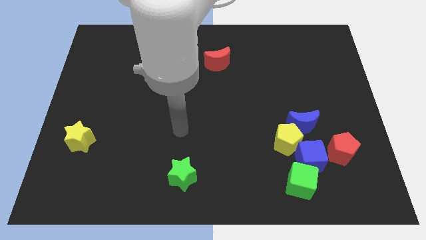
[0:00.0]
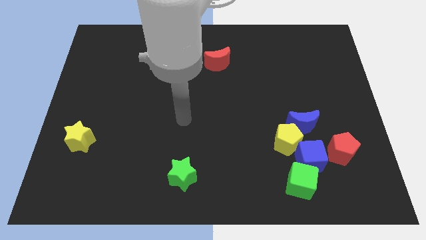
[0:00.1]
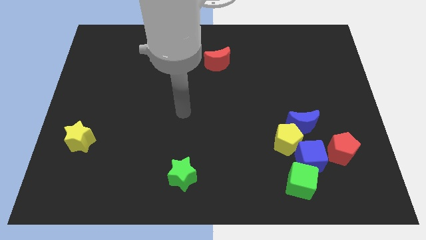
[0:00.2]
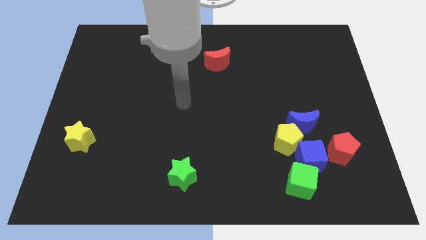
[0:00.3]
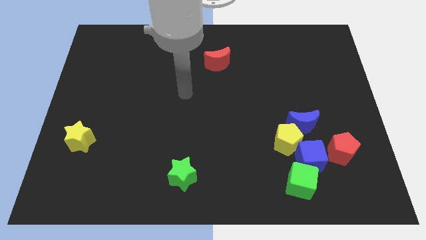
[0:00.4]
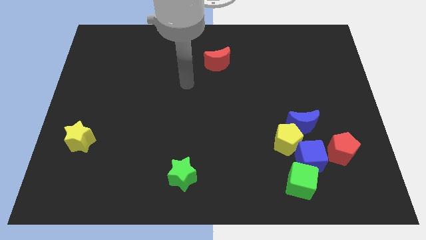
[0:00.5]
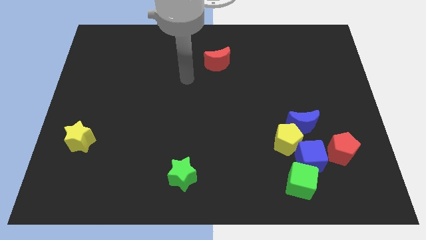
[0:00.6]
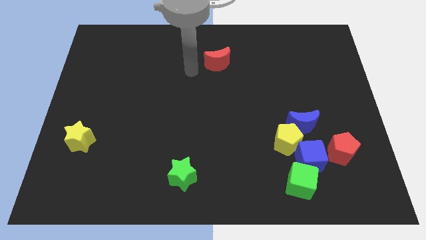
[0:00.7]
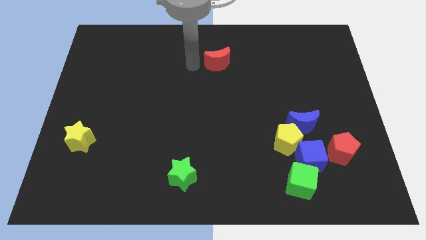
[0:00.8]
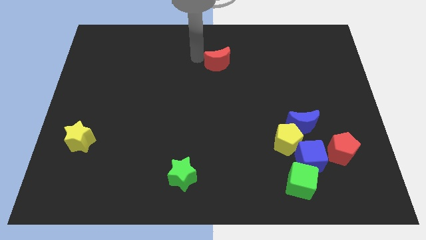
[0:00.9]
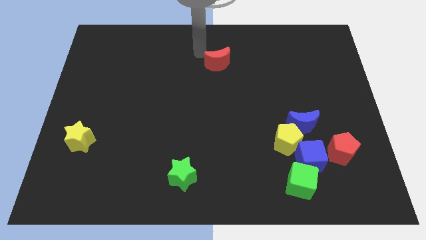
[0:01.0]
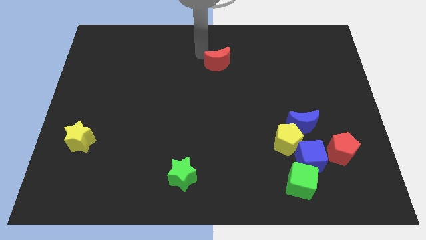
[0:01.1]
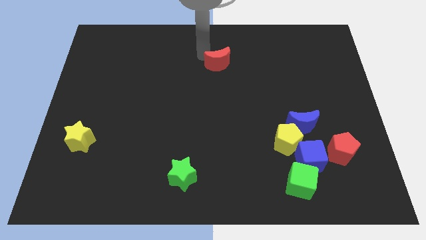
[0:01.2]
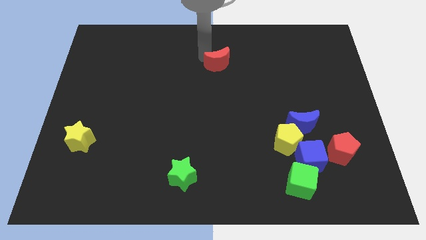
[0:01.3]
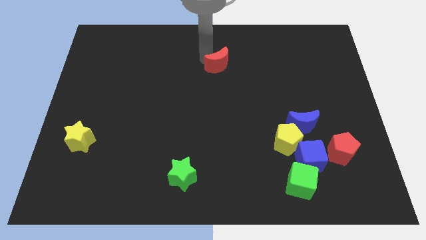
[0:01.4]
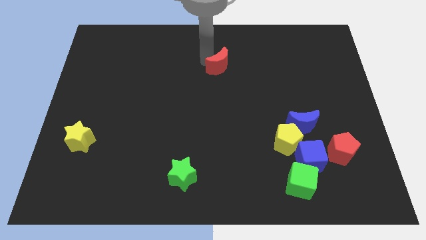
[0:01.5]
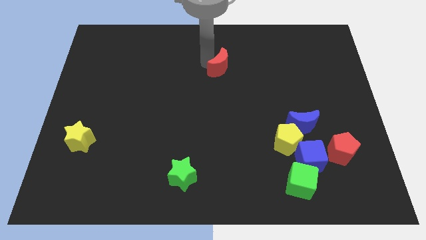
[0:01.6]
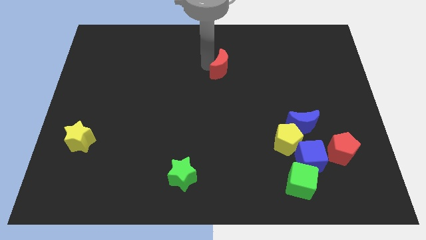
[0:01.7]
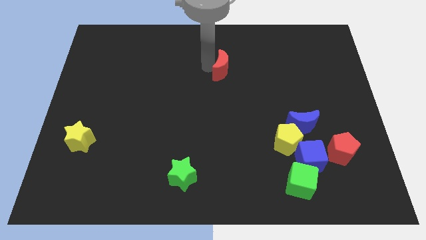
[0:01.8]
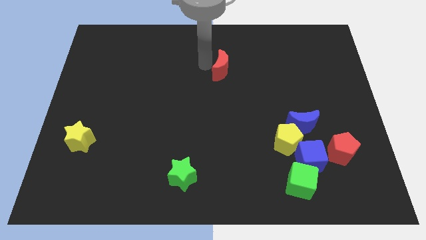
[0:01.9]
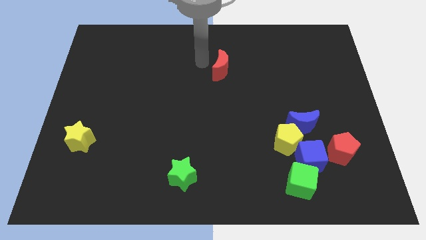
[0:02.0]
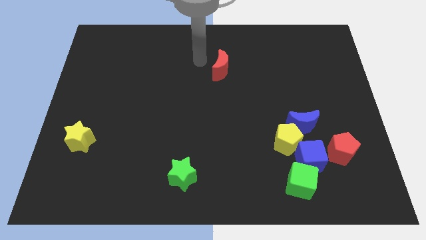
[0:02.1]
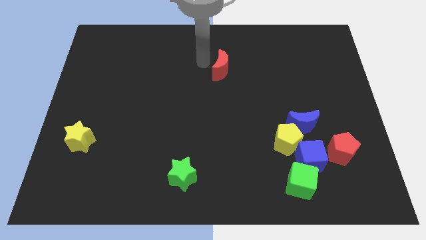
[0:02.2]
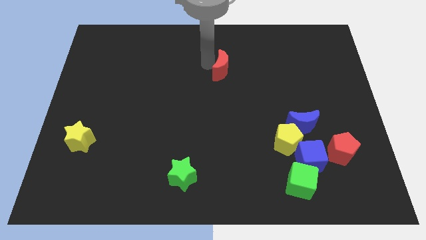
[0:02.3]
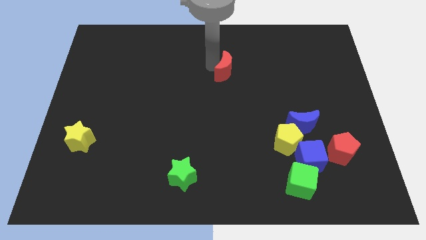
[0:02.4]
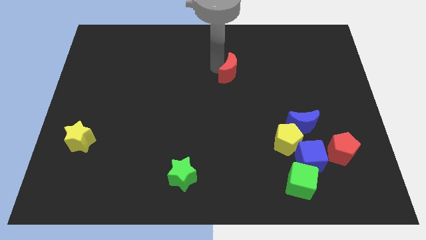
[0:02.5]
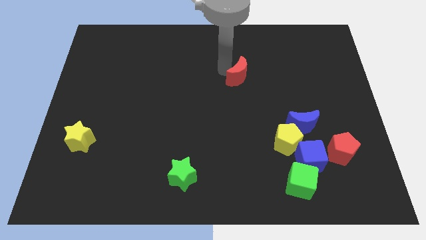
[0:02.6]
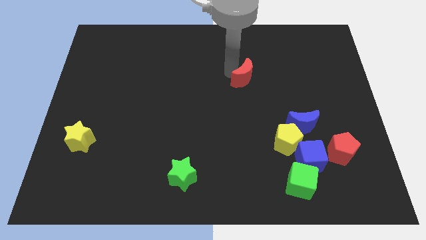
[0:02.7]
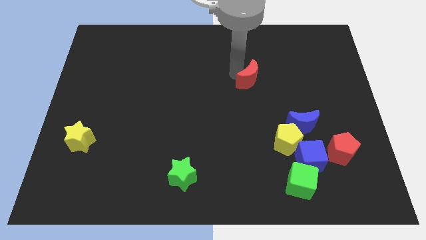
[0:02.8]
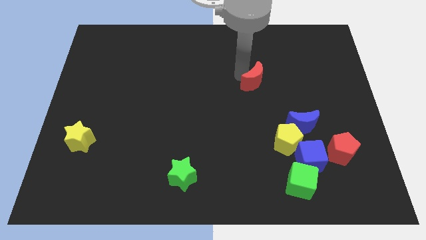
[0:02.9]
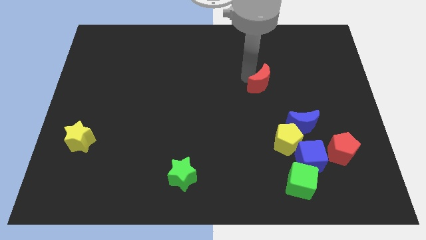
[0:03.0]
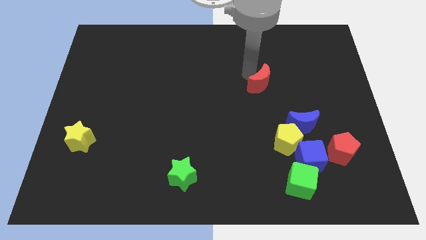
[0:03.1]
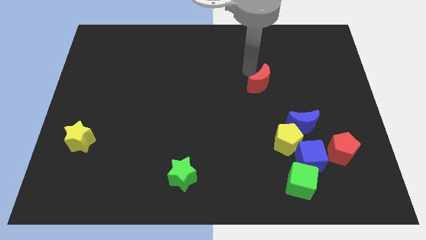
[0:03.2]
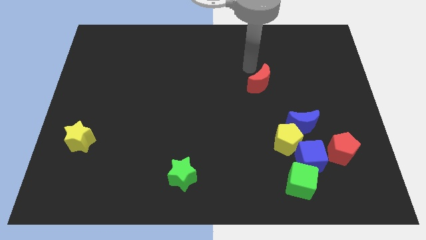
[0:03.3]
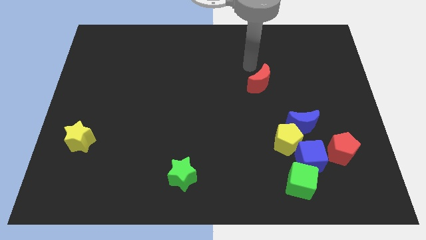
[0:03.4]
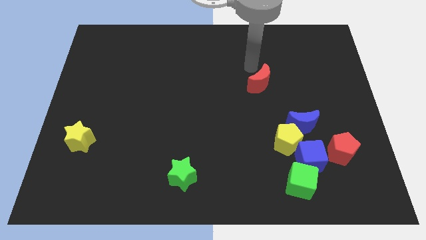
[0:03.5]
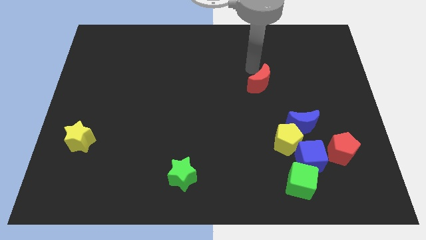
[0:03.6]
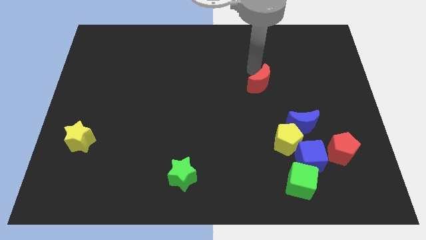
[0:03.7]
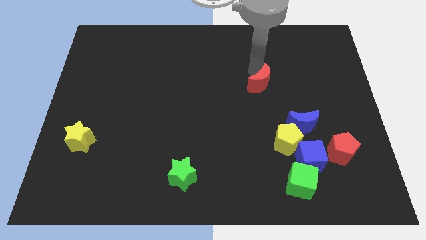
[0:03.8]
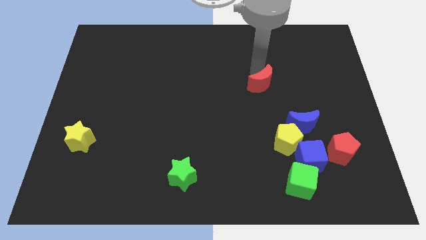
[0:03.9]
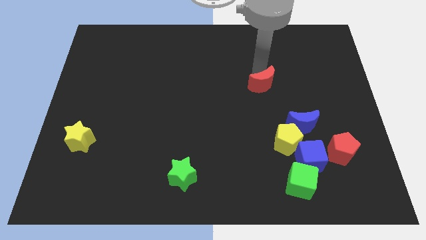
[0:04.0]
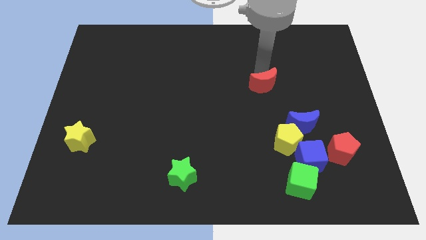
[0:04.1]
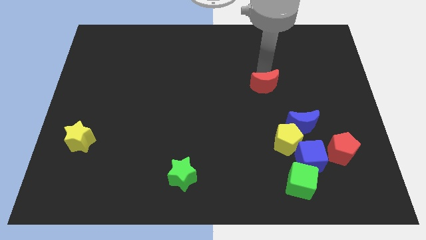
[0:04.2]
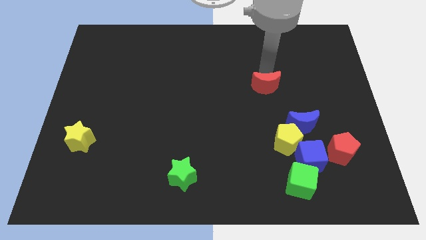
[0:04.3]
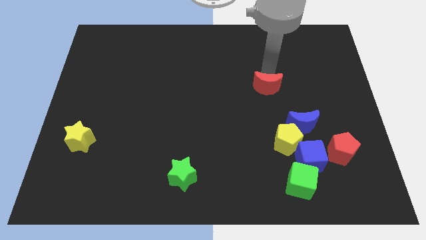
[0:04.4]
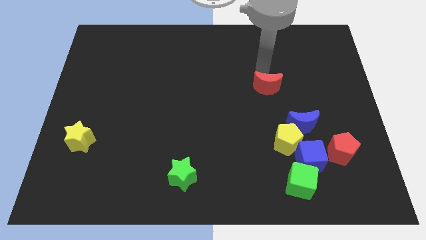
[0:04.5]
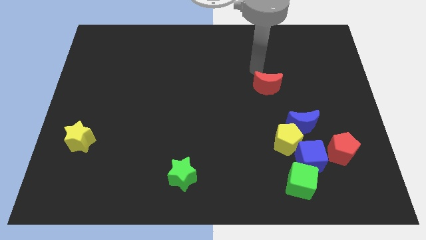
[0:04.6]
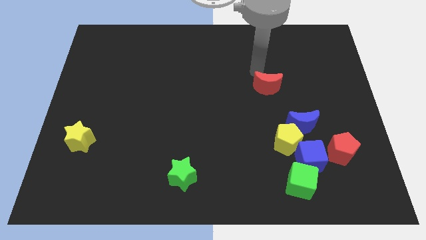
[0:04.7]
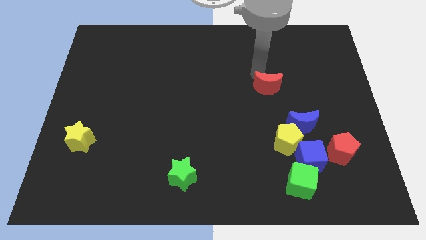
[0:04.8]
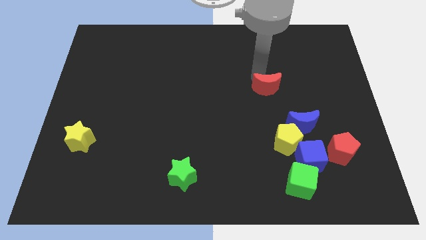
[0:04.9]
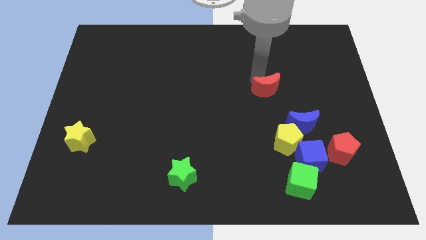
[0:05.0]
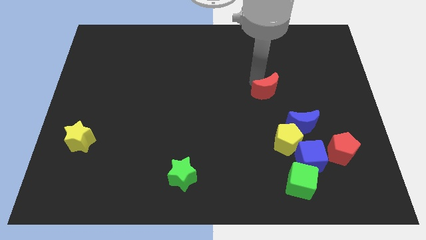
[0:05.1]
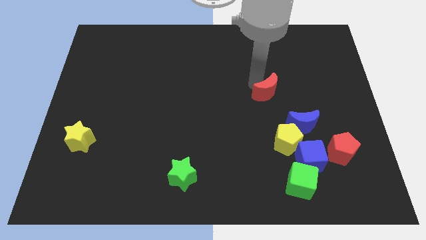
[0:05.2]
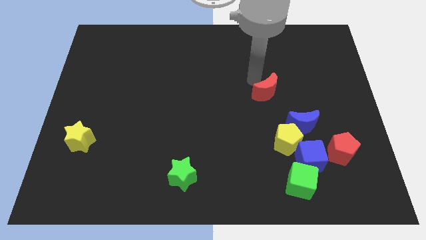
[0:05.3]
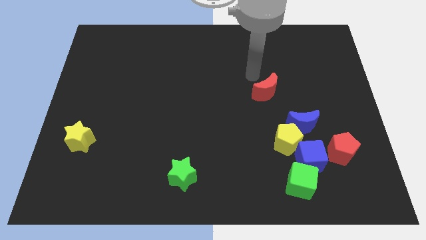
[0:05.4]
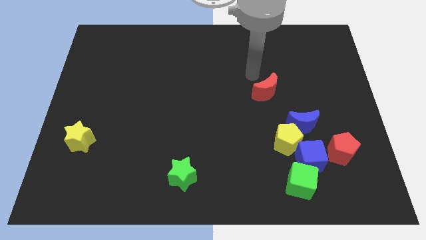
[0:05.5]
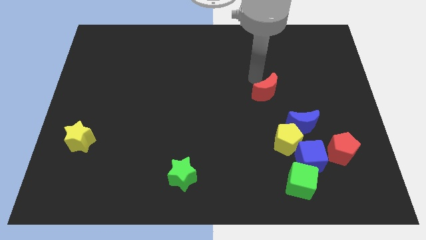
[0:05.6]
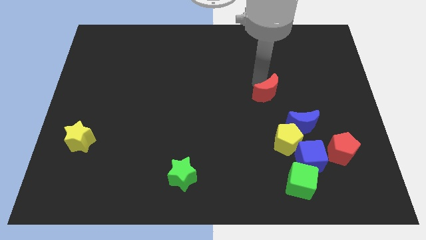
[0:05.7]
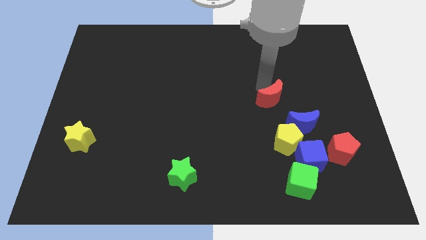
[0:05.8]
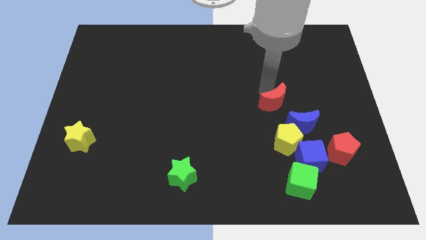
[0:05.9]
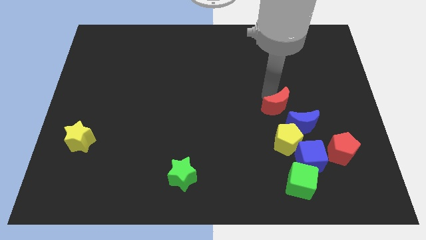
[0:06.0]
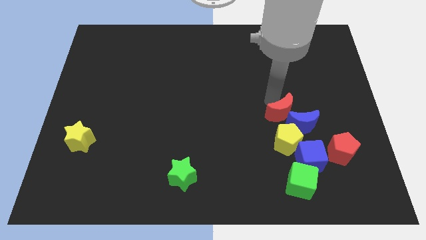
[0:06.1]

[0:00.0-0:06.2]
push the red moon close to the blue moon

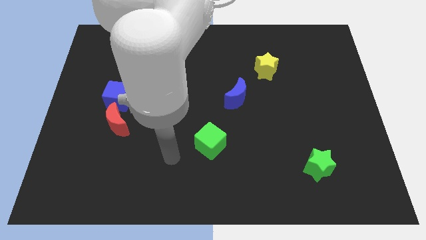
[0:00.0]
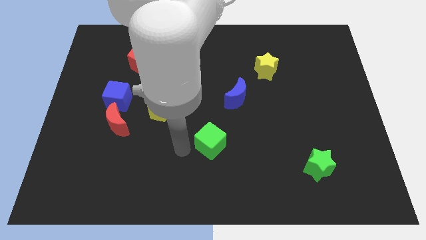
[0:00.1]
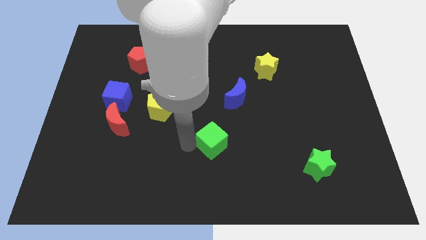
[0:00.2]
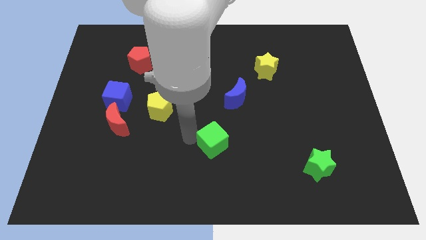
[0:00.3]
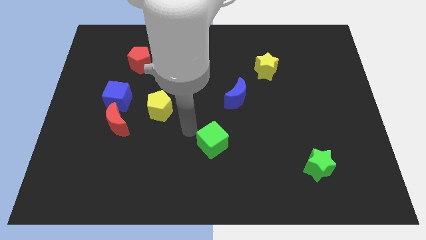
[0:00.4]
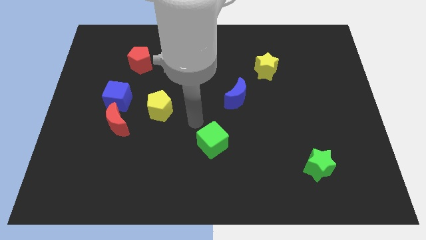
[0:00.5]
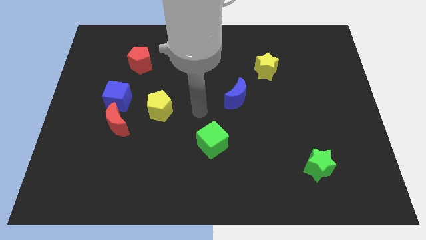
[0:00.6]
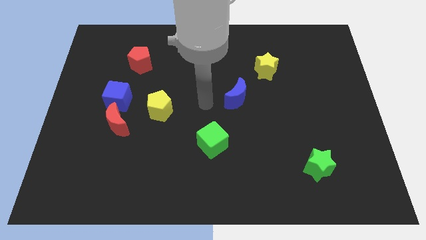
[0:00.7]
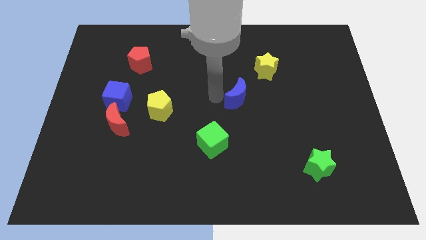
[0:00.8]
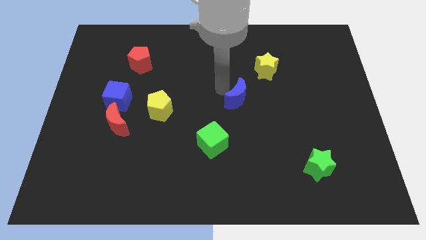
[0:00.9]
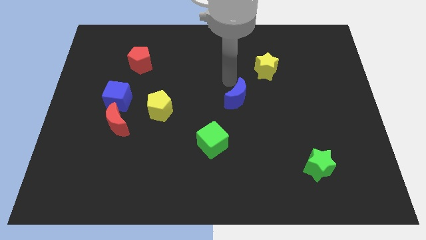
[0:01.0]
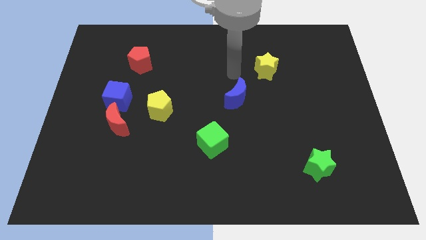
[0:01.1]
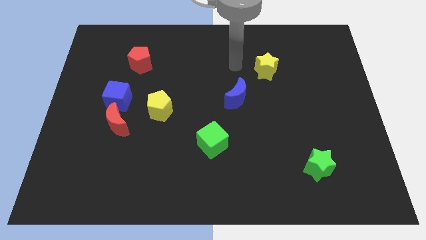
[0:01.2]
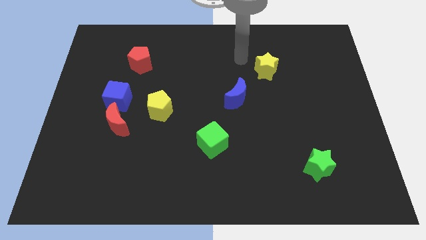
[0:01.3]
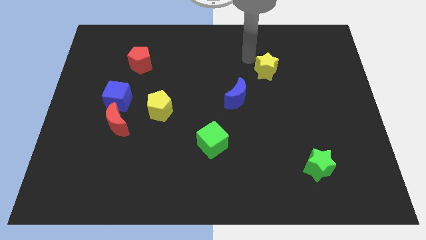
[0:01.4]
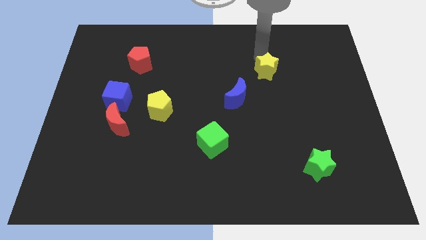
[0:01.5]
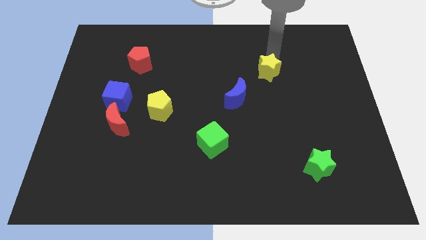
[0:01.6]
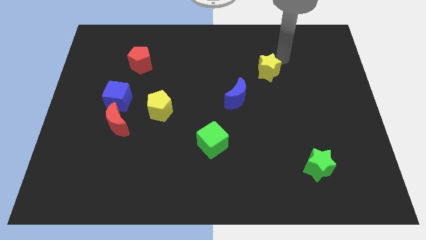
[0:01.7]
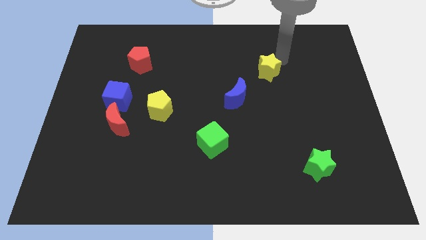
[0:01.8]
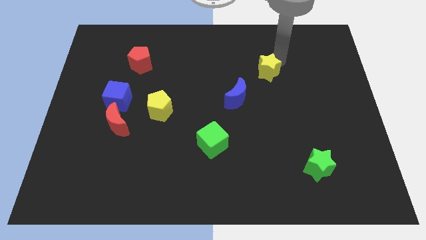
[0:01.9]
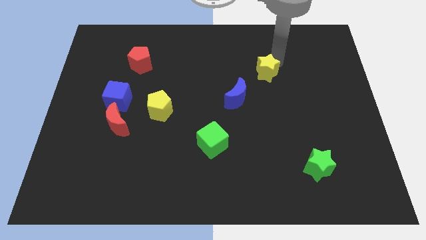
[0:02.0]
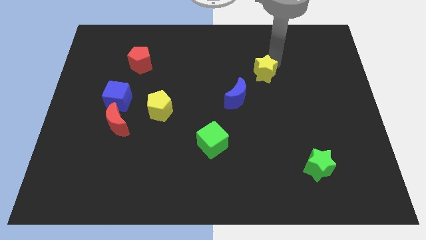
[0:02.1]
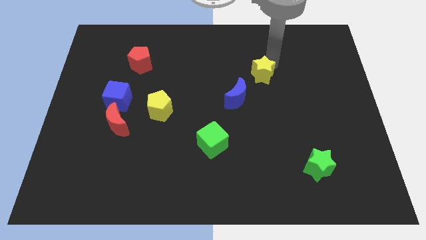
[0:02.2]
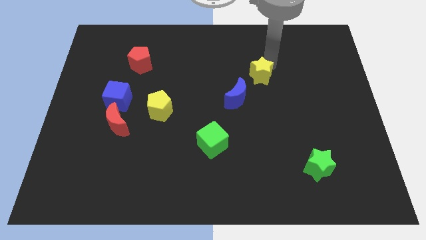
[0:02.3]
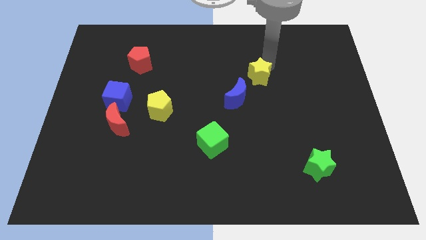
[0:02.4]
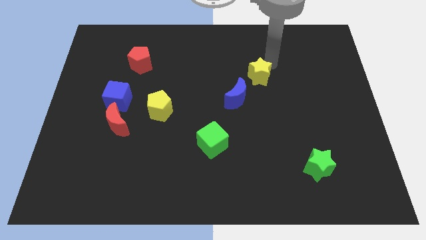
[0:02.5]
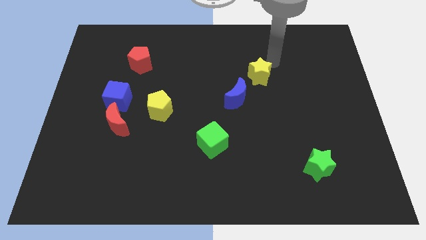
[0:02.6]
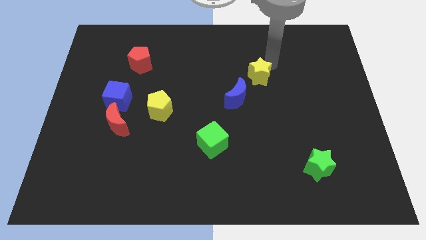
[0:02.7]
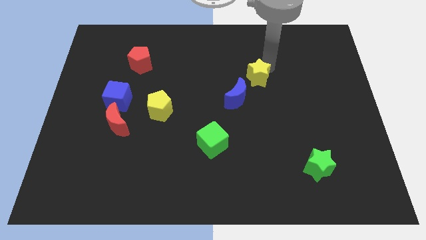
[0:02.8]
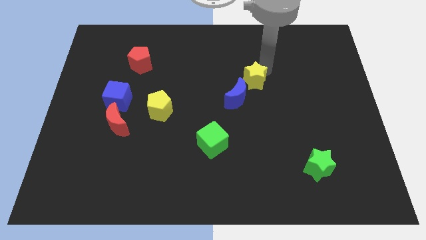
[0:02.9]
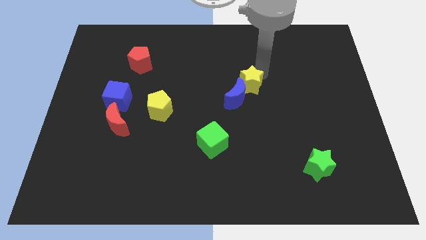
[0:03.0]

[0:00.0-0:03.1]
slide the yellow star towards the blue moon
